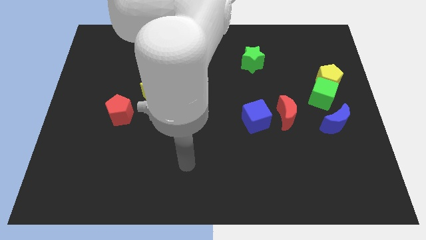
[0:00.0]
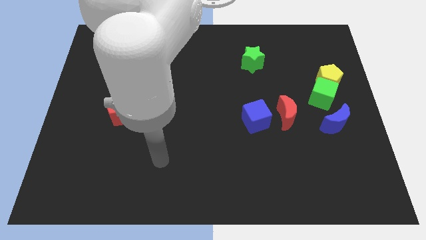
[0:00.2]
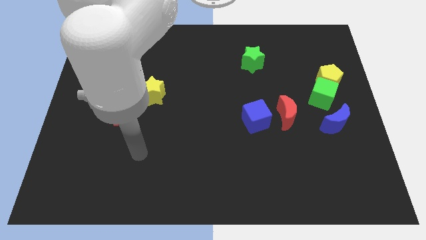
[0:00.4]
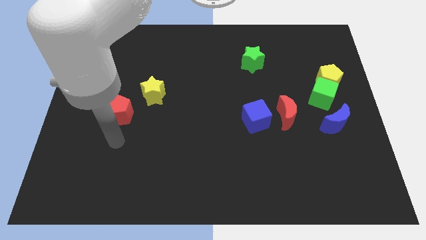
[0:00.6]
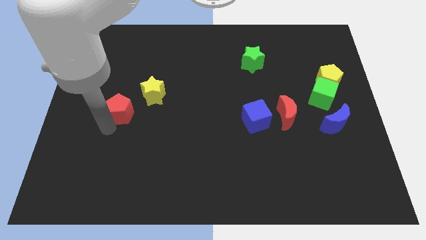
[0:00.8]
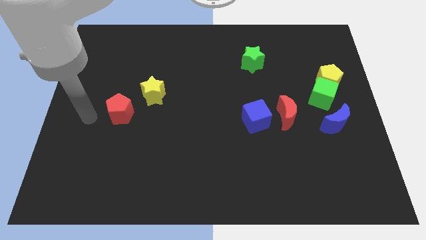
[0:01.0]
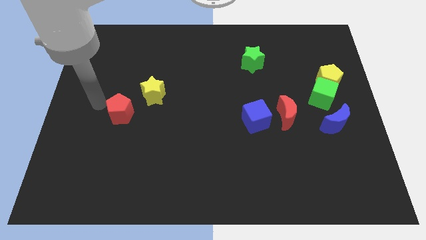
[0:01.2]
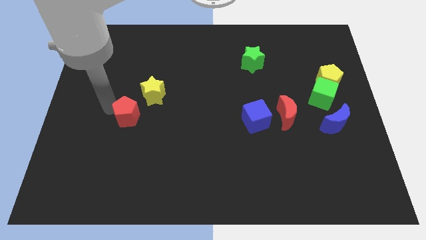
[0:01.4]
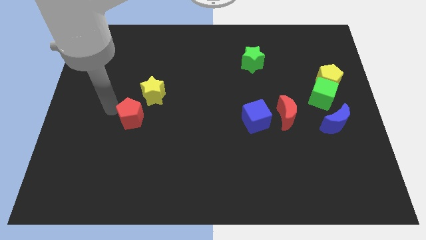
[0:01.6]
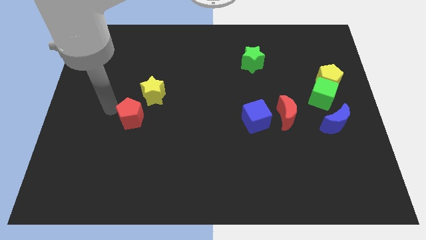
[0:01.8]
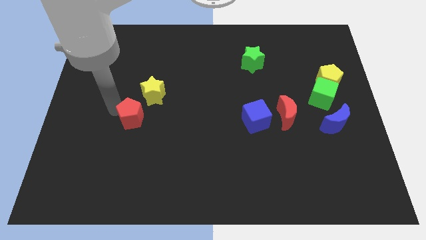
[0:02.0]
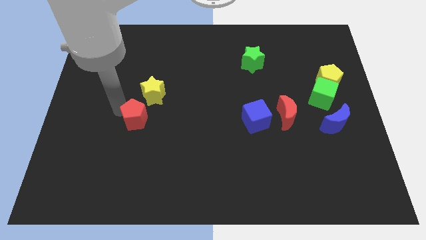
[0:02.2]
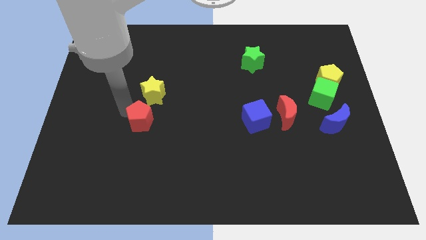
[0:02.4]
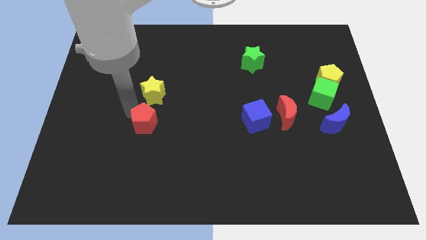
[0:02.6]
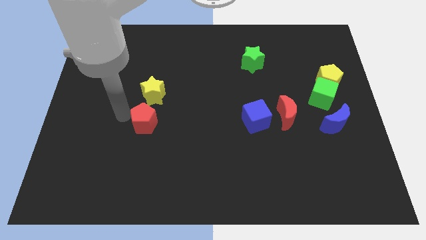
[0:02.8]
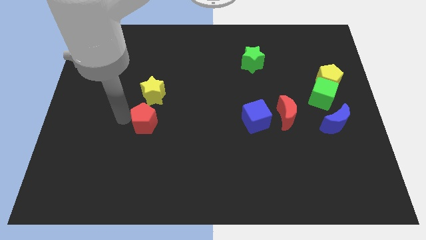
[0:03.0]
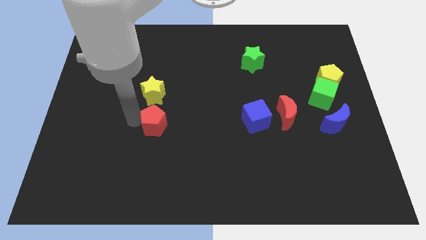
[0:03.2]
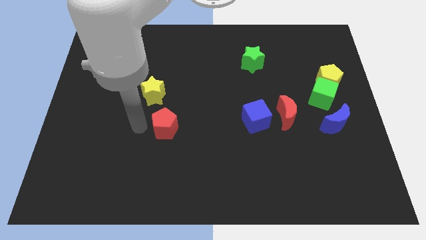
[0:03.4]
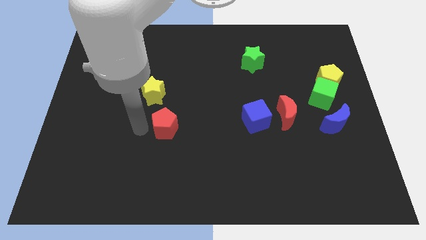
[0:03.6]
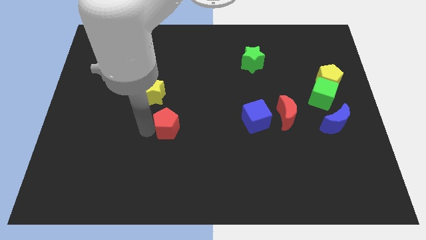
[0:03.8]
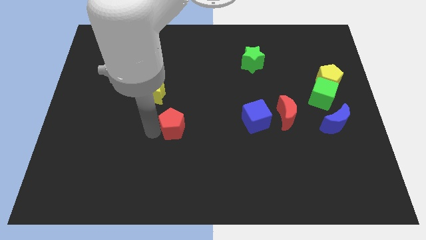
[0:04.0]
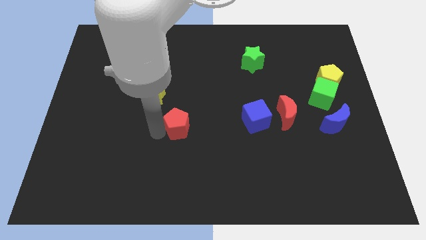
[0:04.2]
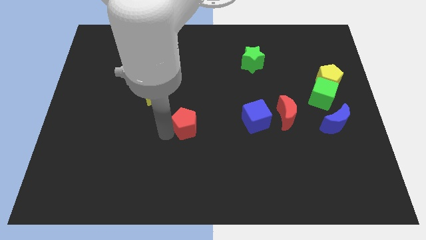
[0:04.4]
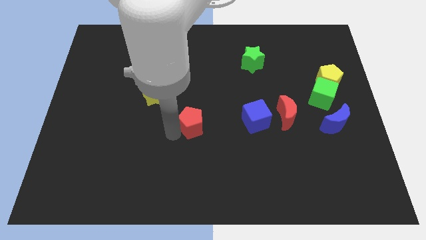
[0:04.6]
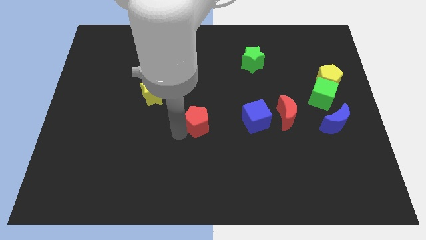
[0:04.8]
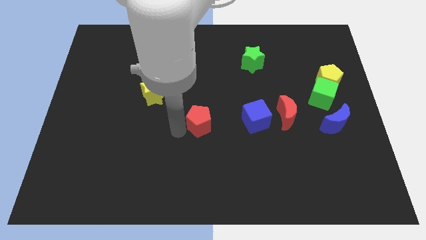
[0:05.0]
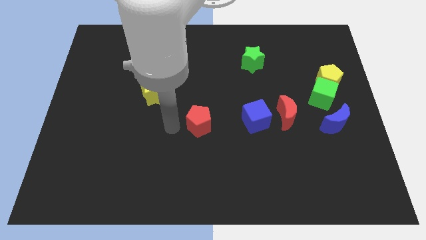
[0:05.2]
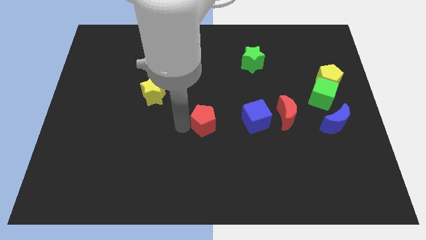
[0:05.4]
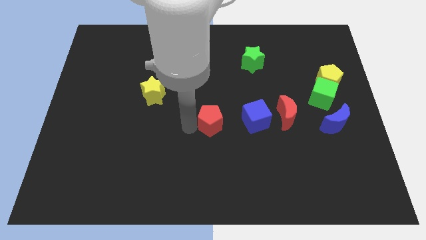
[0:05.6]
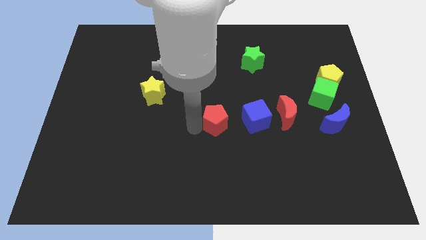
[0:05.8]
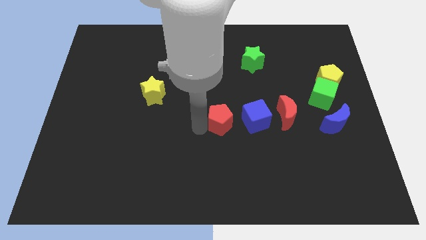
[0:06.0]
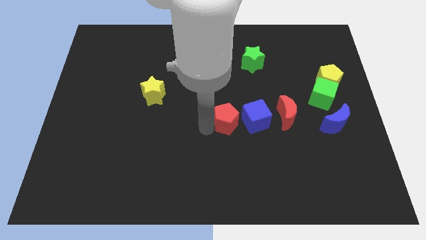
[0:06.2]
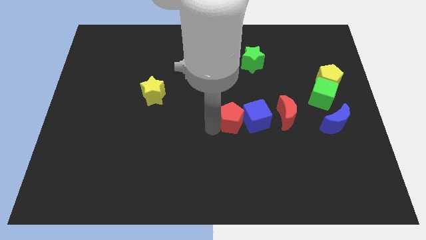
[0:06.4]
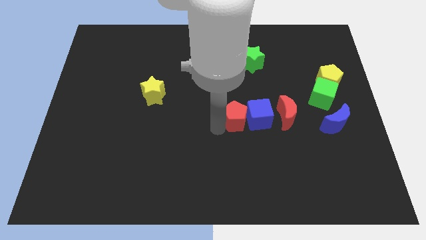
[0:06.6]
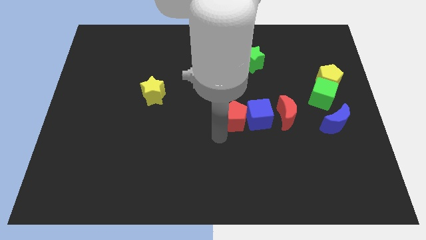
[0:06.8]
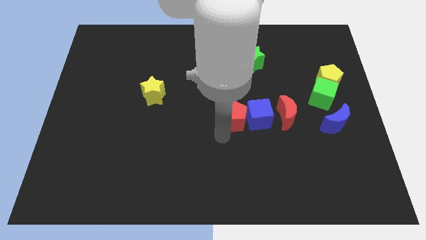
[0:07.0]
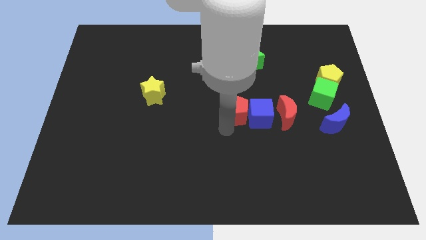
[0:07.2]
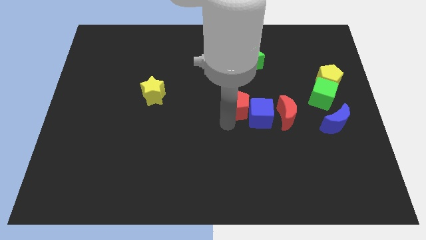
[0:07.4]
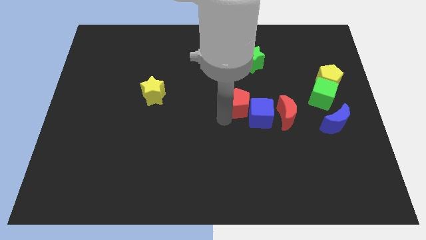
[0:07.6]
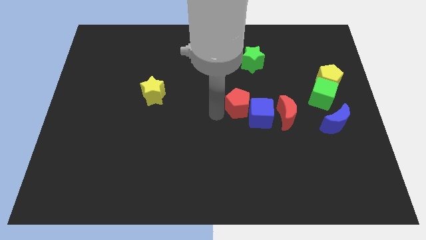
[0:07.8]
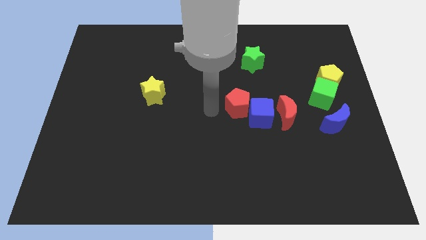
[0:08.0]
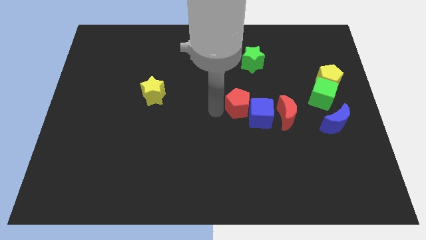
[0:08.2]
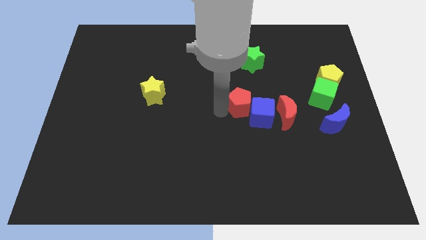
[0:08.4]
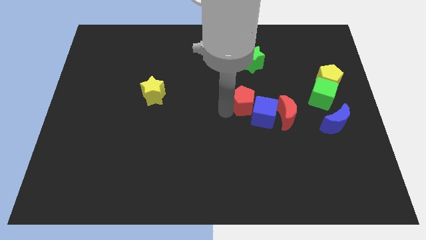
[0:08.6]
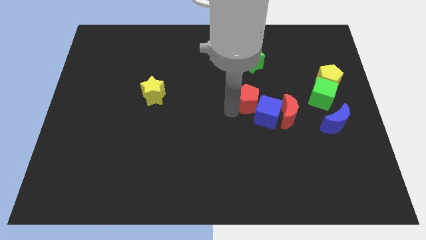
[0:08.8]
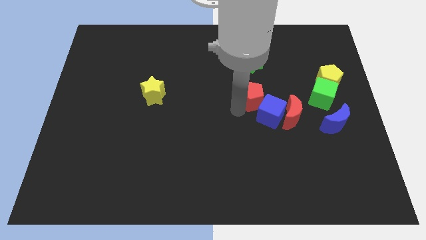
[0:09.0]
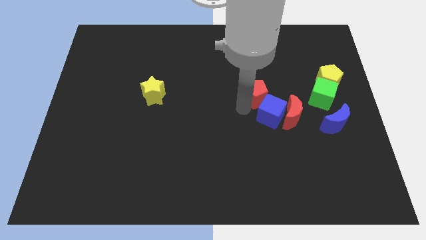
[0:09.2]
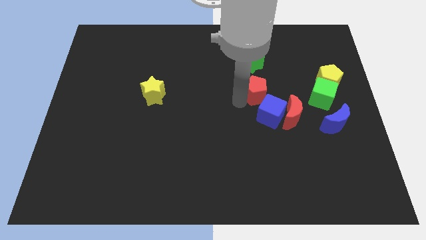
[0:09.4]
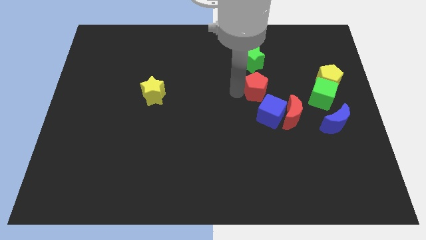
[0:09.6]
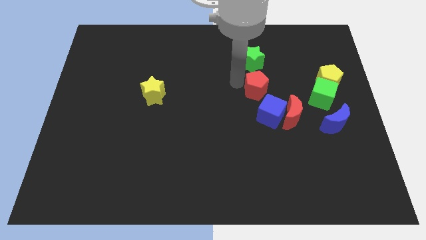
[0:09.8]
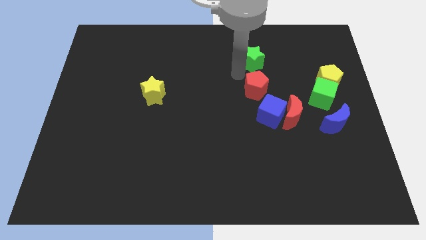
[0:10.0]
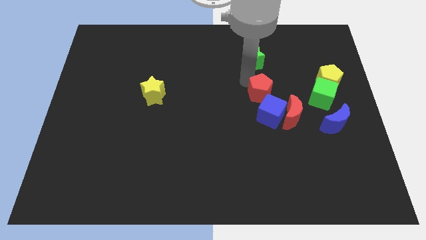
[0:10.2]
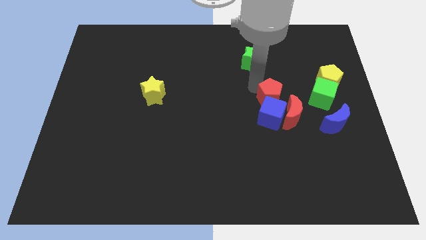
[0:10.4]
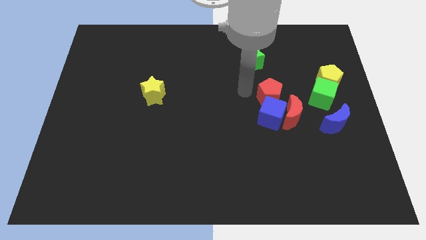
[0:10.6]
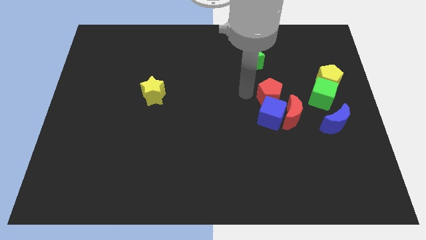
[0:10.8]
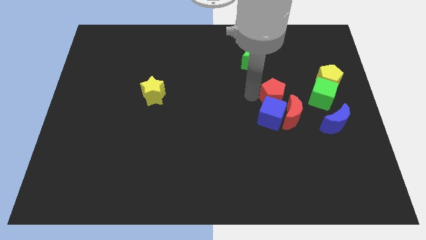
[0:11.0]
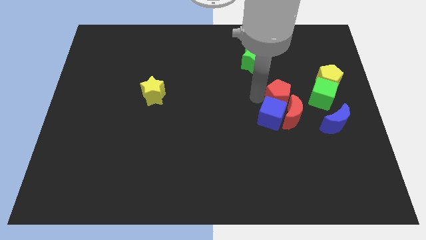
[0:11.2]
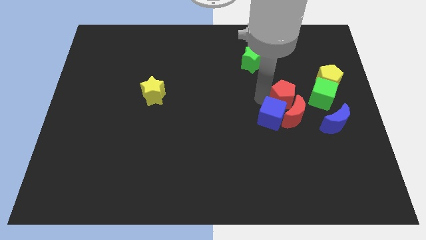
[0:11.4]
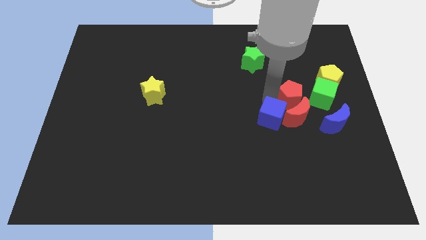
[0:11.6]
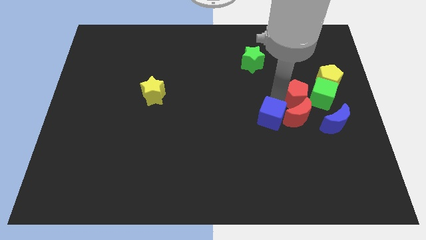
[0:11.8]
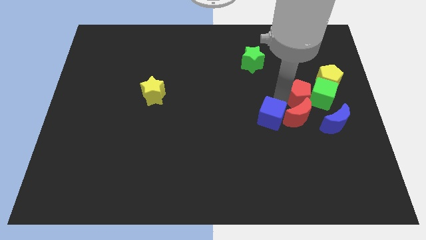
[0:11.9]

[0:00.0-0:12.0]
push the red pentagon close to the green cube

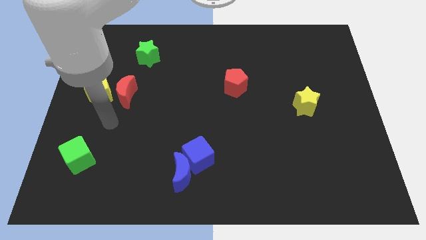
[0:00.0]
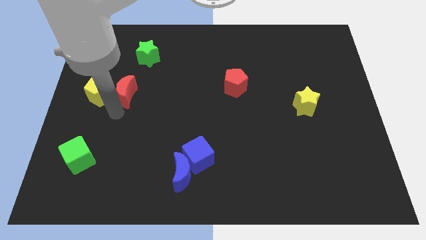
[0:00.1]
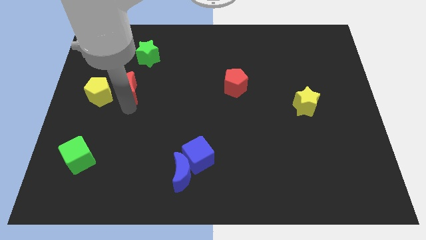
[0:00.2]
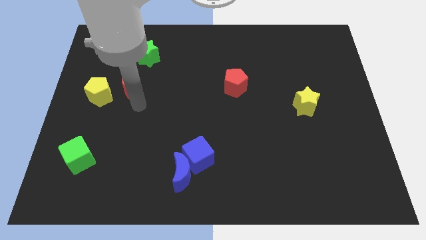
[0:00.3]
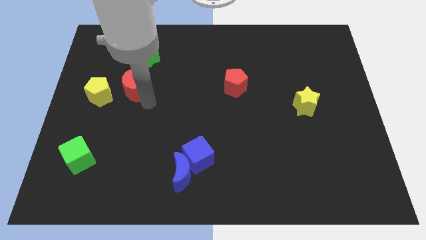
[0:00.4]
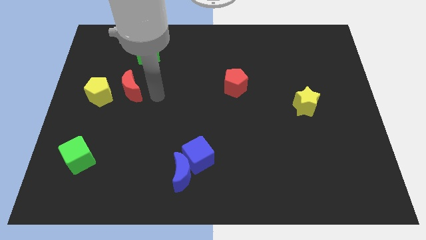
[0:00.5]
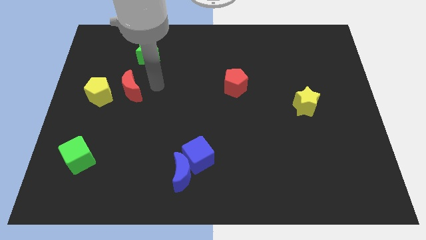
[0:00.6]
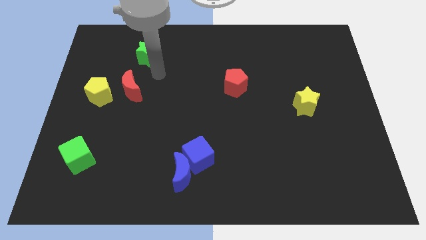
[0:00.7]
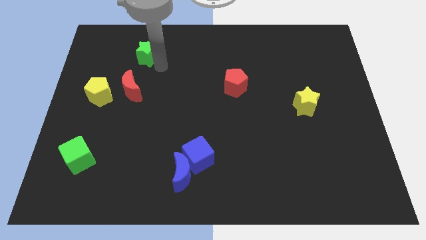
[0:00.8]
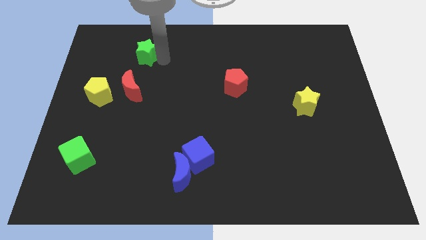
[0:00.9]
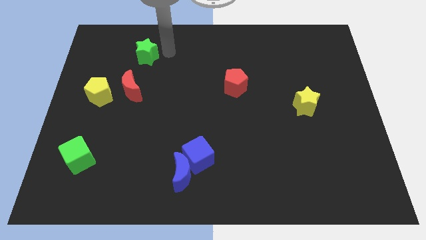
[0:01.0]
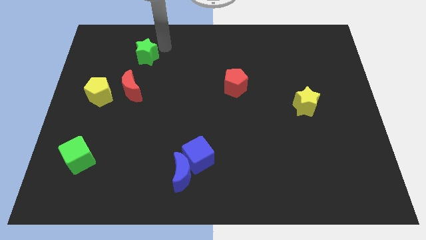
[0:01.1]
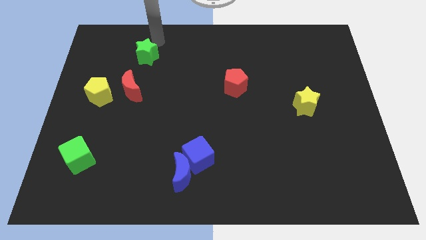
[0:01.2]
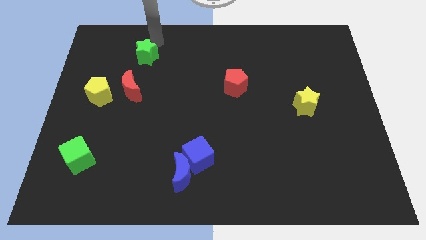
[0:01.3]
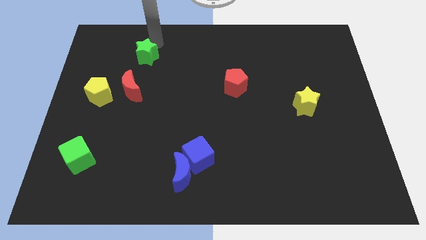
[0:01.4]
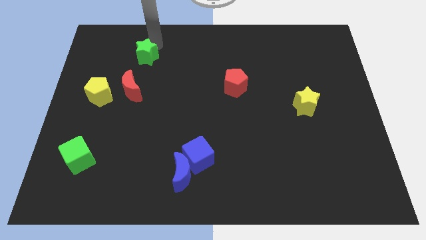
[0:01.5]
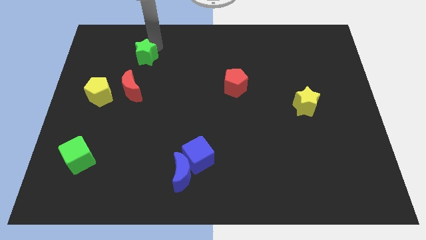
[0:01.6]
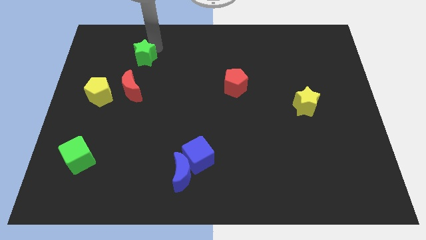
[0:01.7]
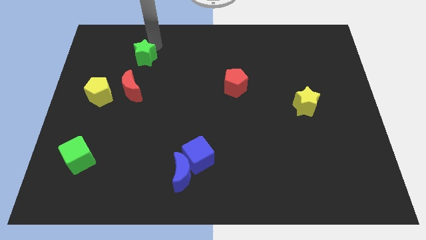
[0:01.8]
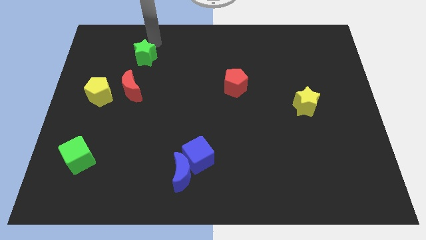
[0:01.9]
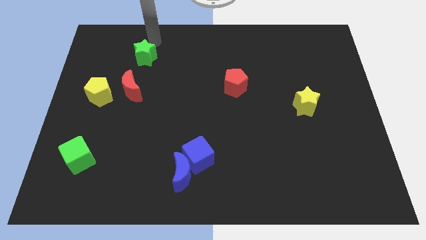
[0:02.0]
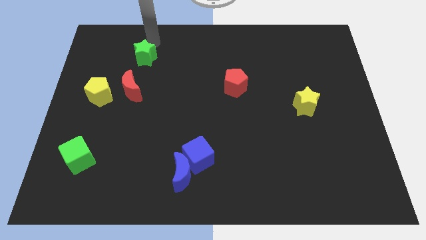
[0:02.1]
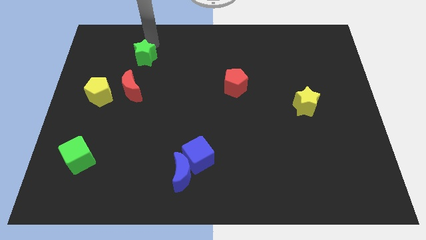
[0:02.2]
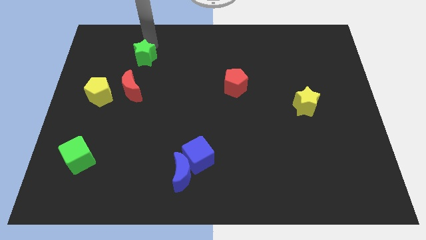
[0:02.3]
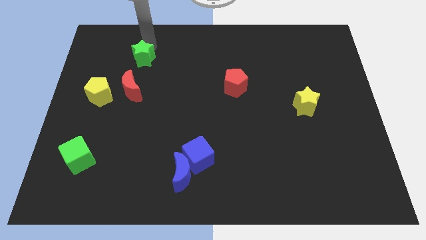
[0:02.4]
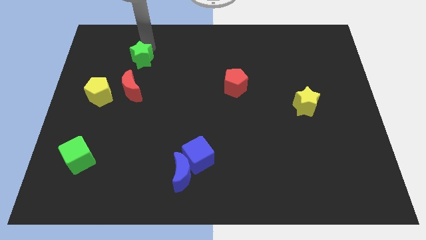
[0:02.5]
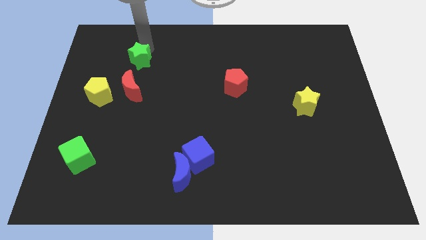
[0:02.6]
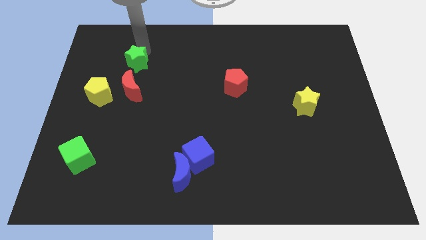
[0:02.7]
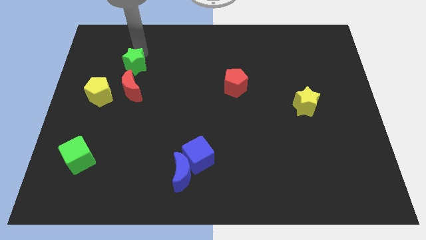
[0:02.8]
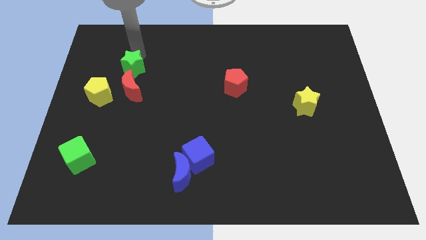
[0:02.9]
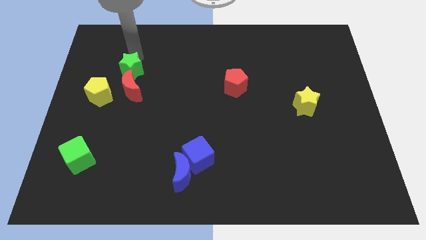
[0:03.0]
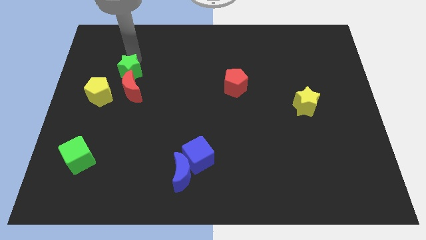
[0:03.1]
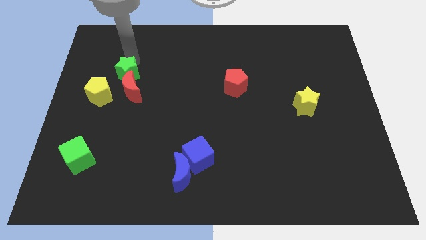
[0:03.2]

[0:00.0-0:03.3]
slide the green star next to the red moon
